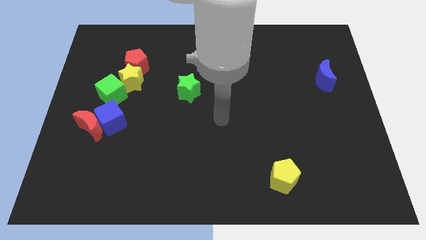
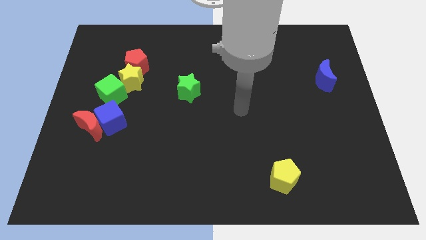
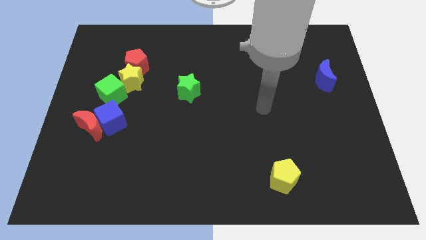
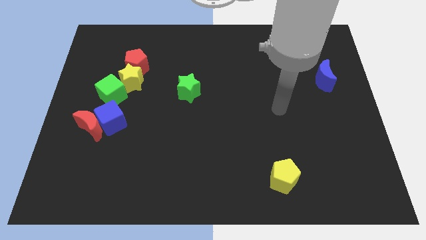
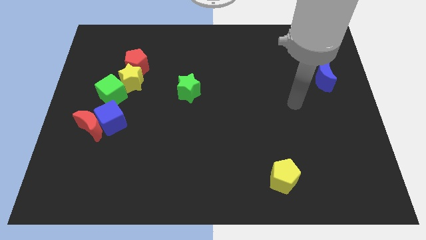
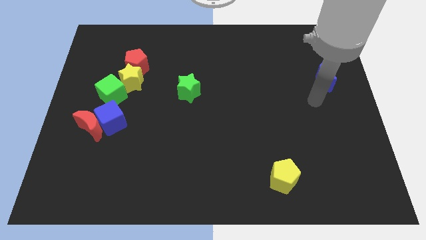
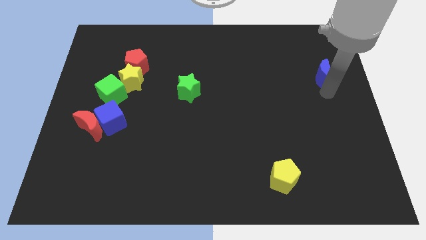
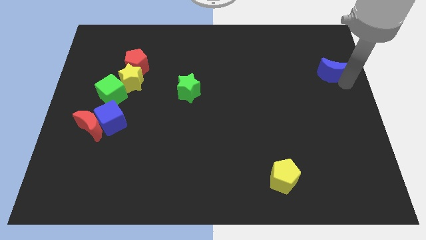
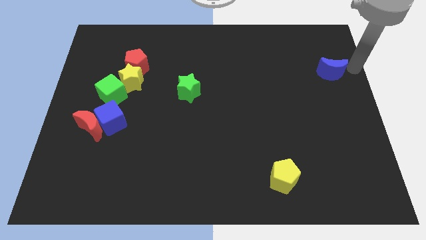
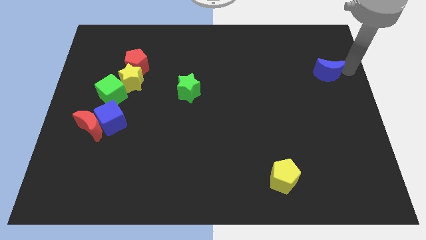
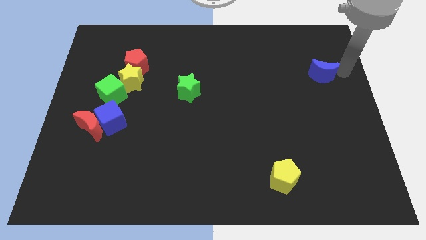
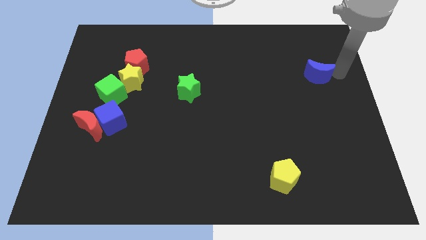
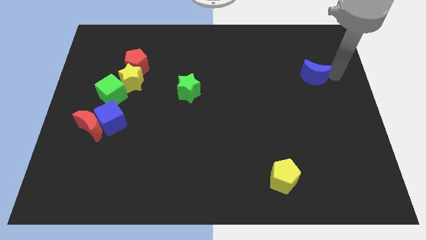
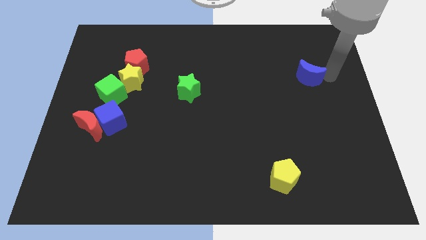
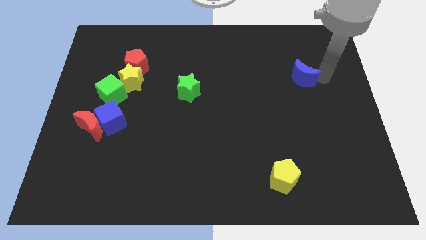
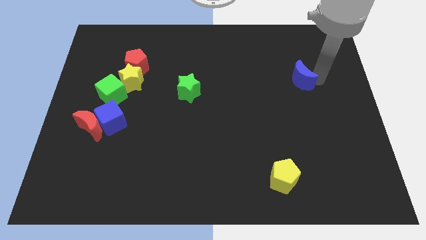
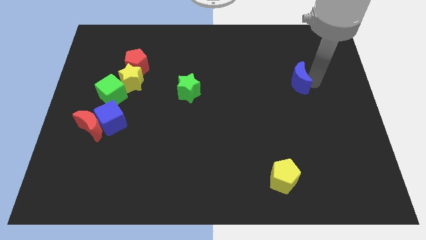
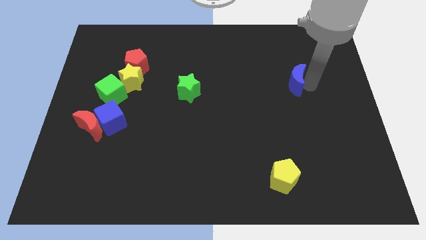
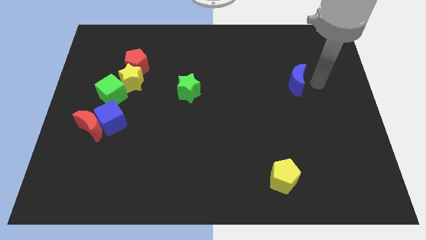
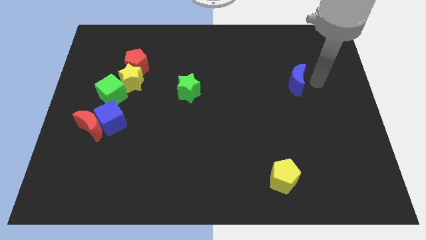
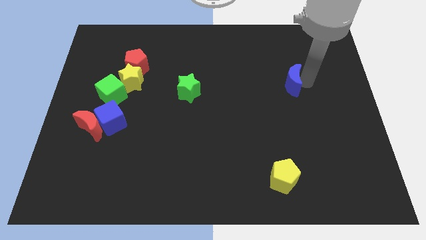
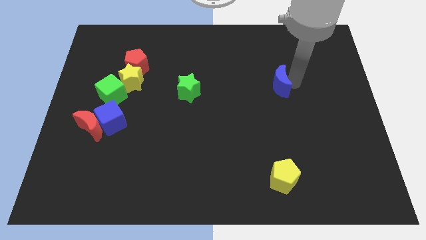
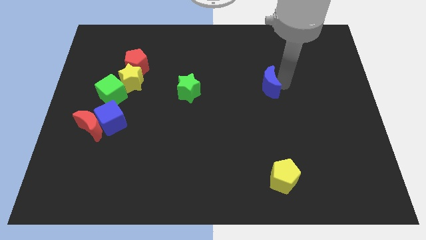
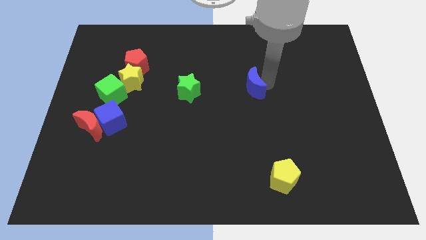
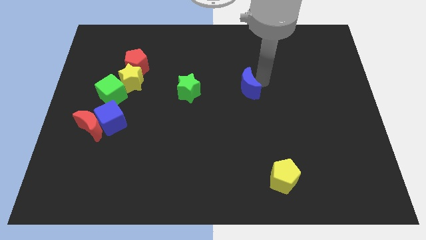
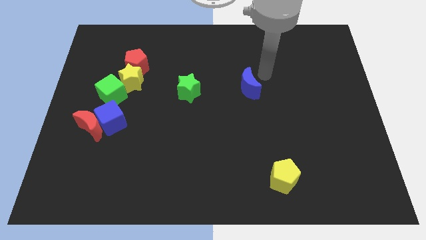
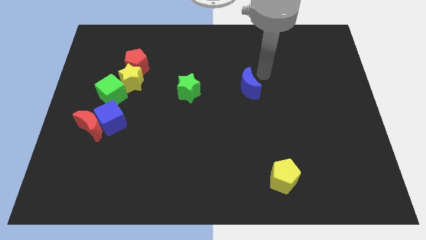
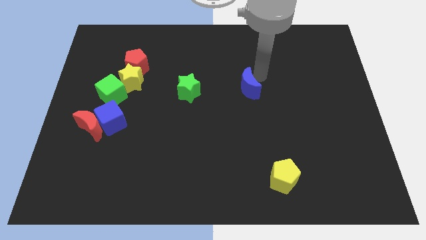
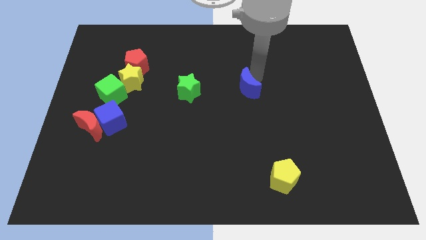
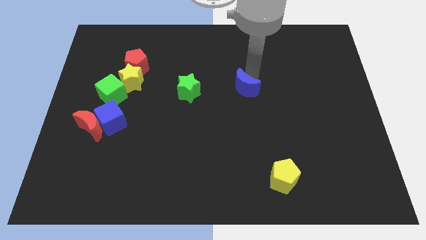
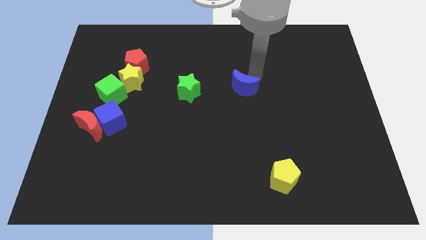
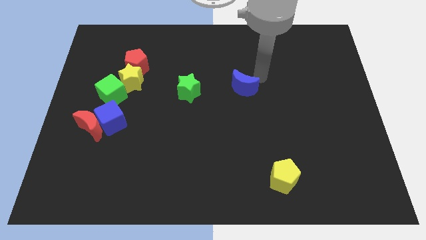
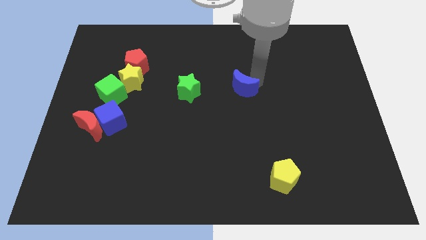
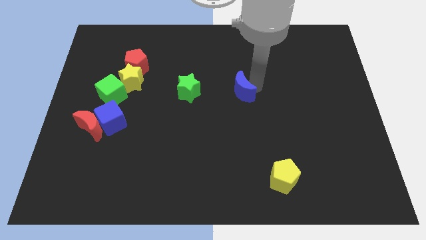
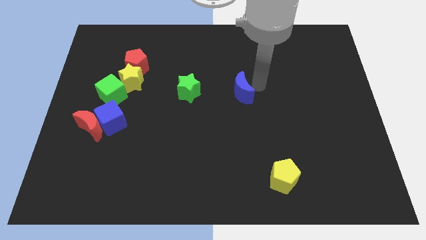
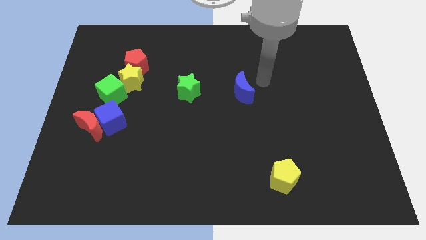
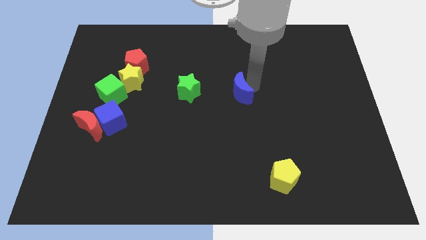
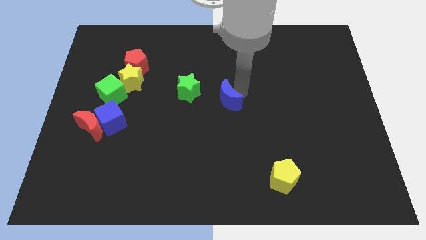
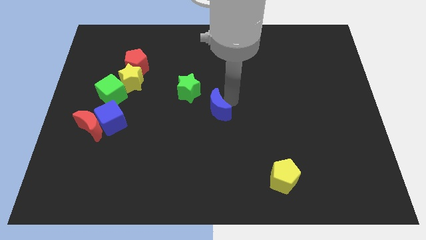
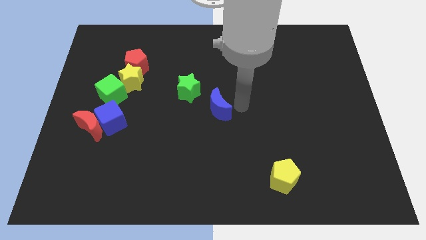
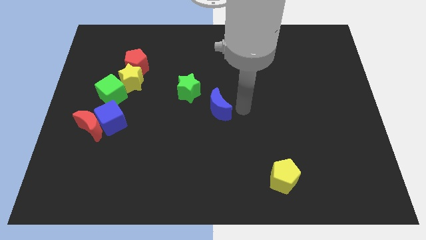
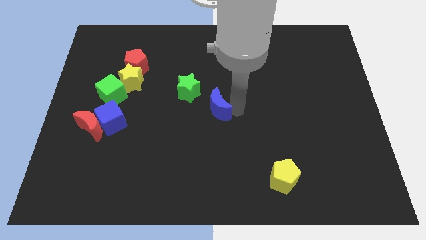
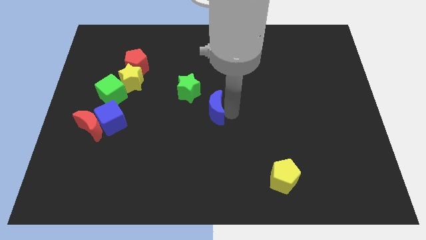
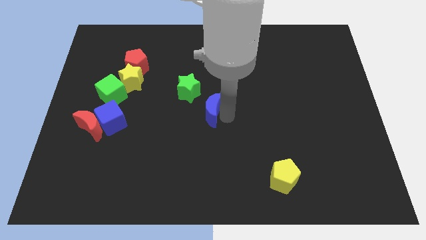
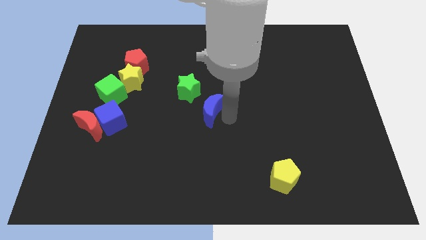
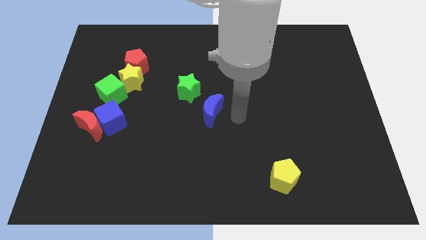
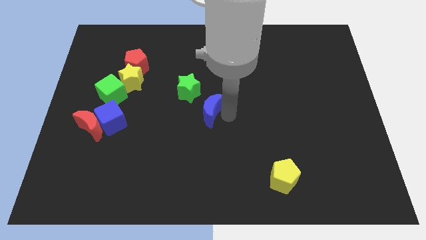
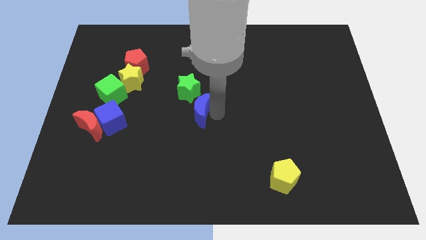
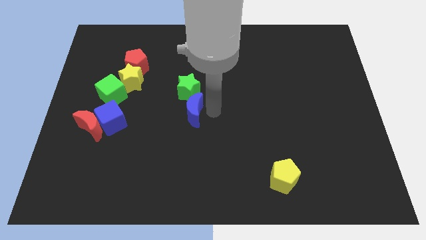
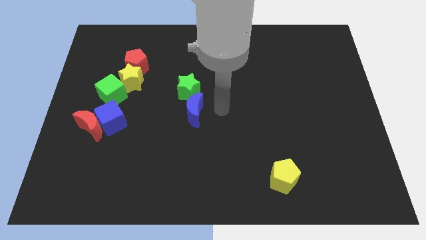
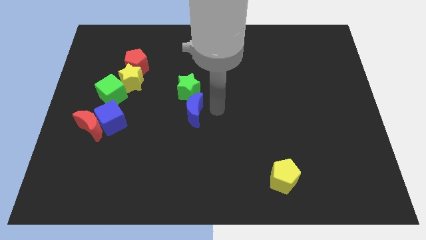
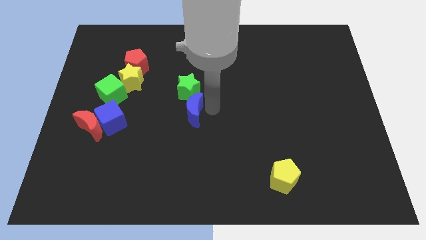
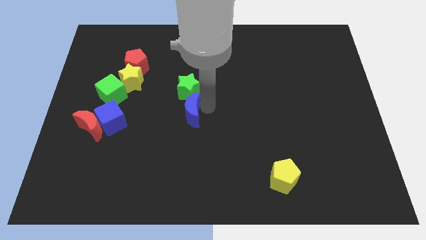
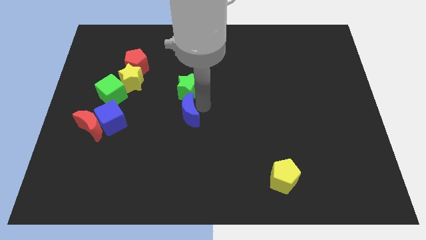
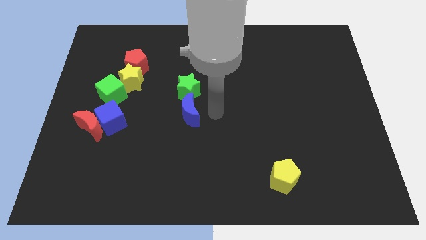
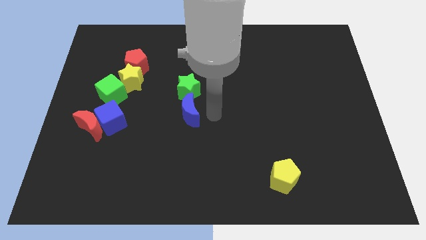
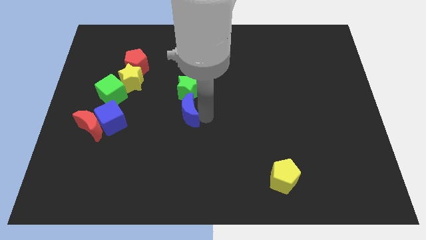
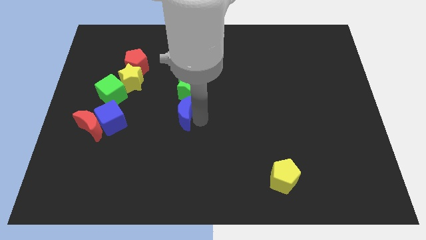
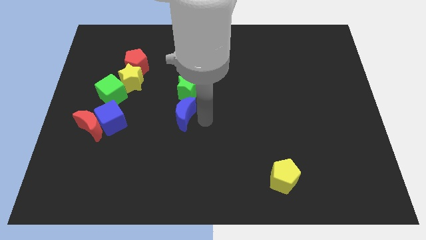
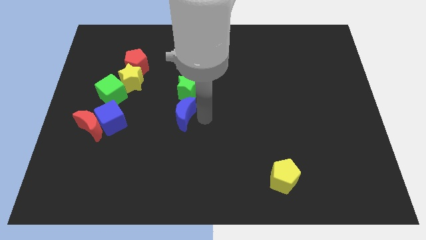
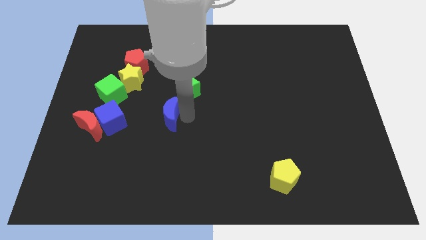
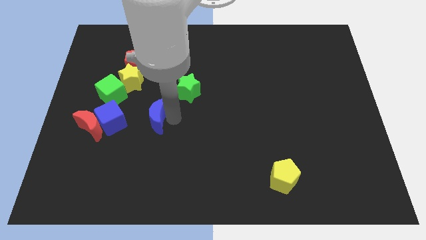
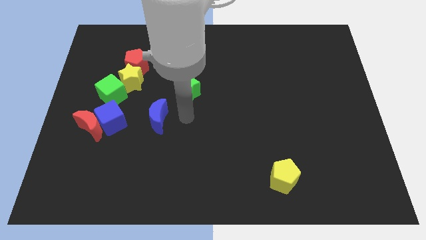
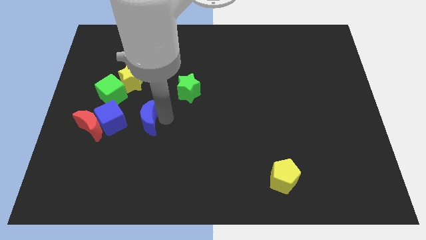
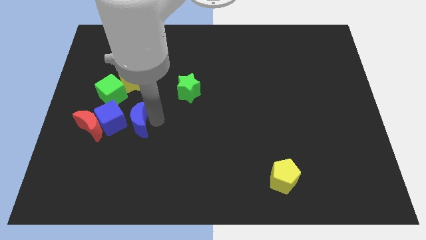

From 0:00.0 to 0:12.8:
put the blue moon next to the blue cube

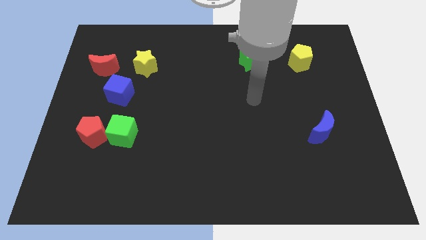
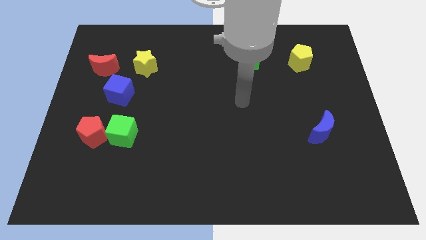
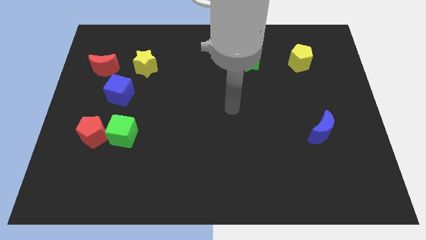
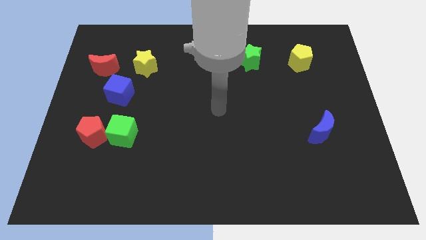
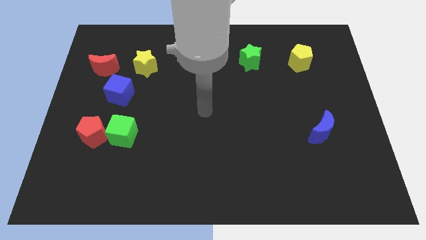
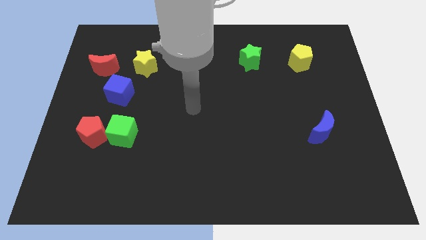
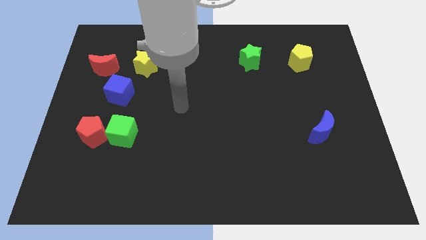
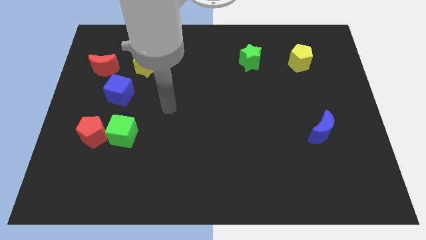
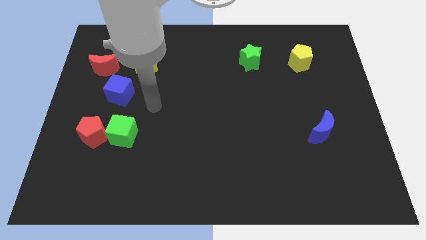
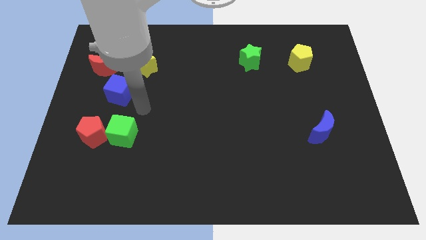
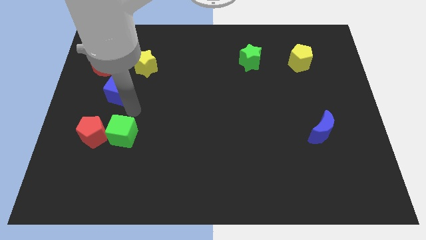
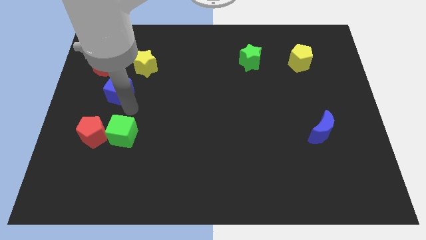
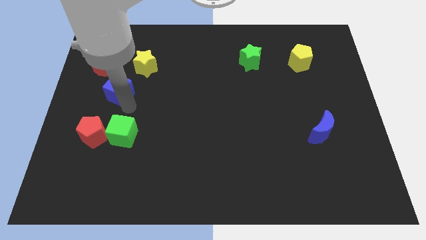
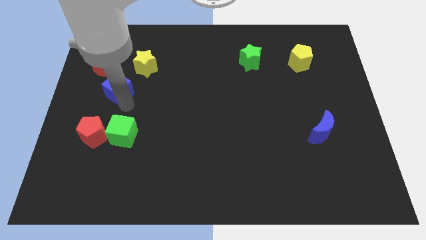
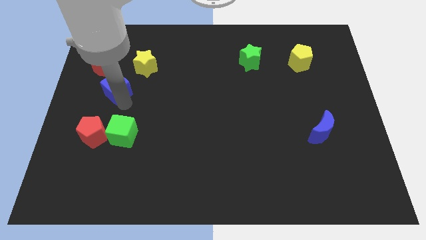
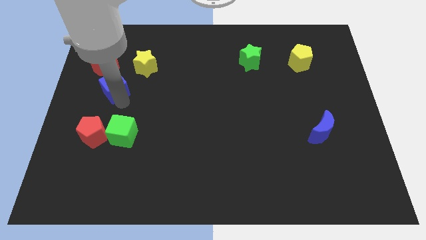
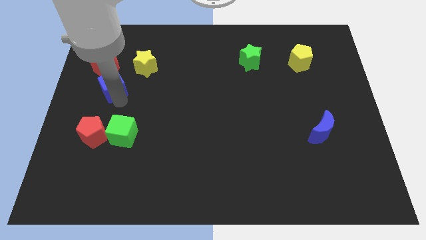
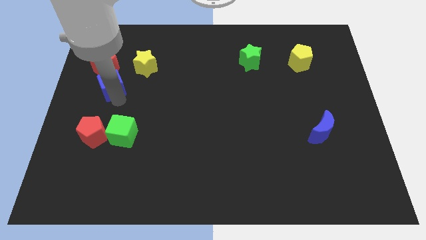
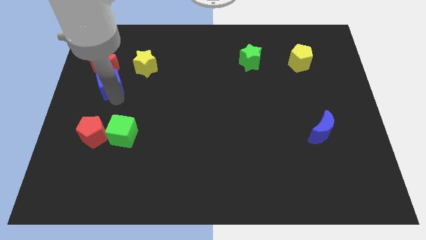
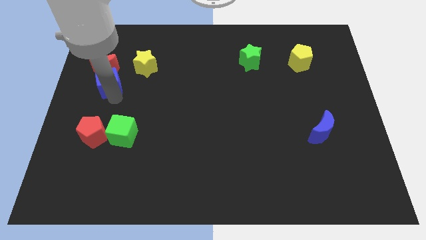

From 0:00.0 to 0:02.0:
put the blue cube to the red moon
